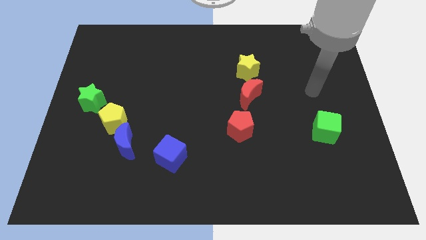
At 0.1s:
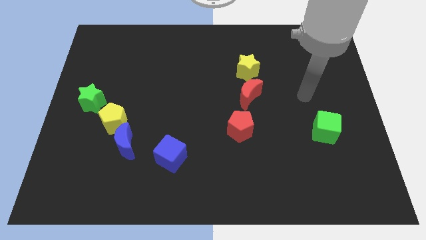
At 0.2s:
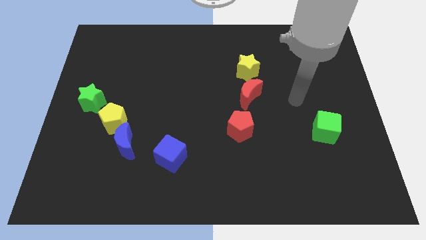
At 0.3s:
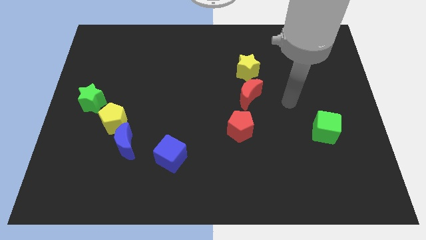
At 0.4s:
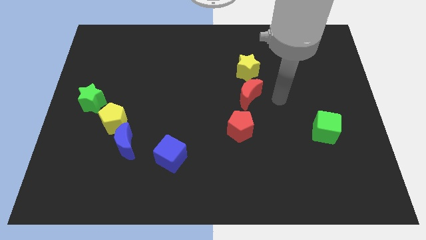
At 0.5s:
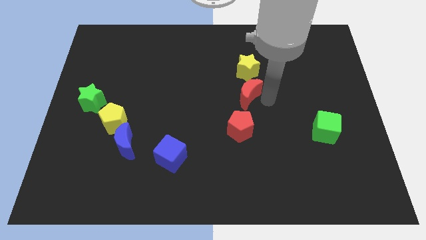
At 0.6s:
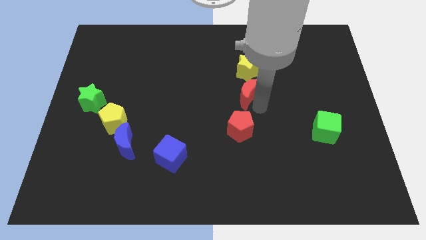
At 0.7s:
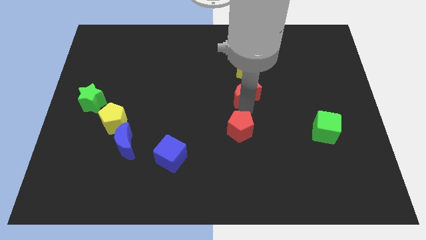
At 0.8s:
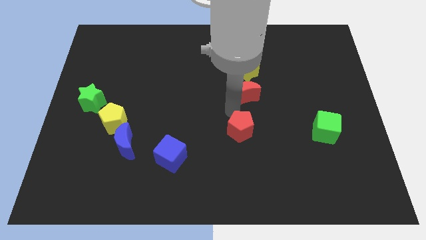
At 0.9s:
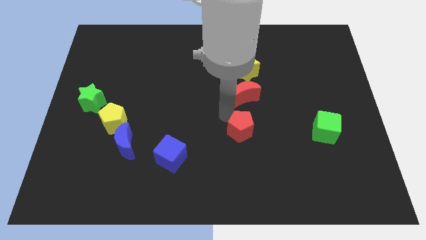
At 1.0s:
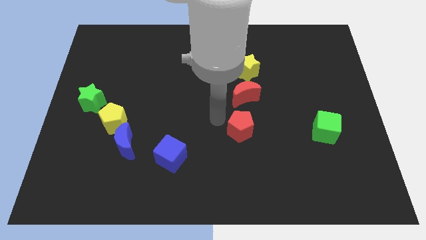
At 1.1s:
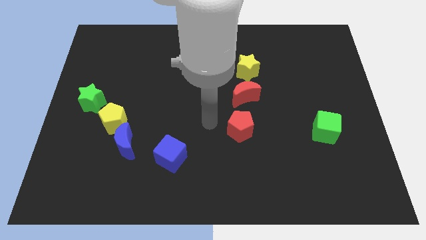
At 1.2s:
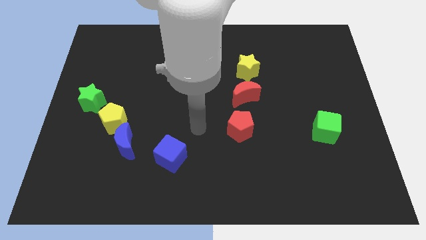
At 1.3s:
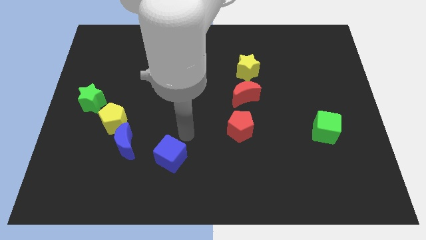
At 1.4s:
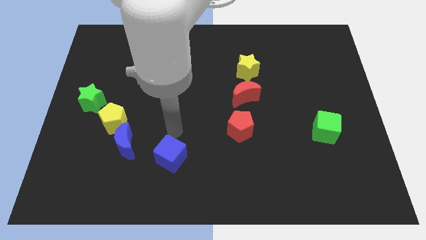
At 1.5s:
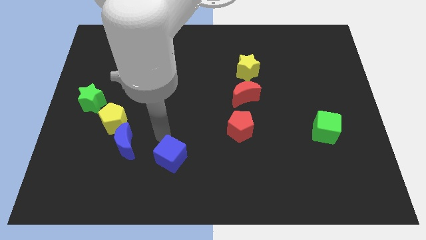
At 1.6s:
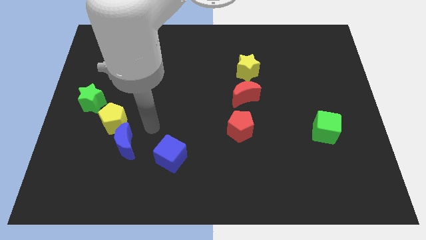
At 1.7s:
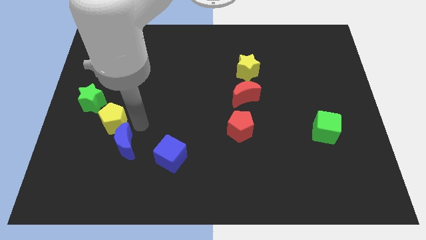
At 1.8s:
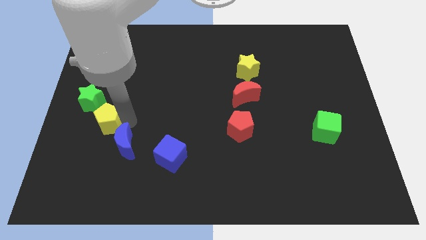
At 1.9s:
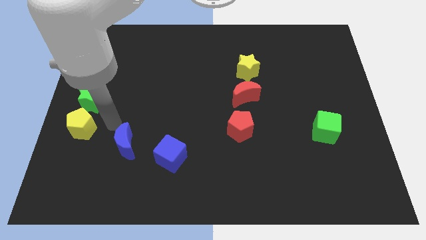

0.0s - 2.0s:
pull the blue moon apart from the yellow pentagon

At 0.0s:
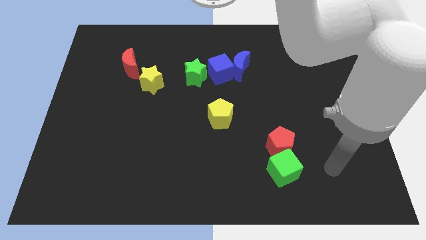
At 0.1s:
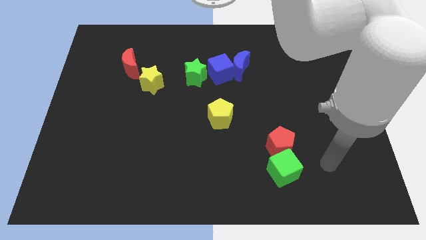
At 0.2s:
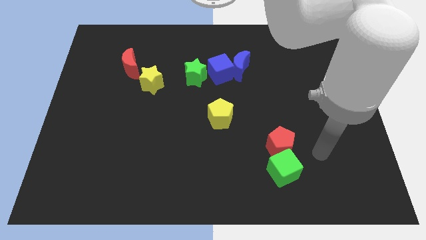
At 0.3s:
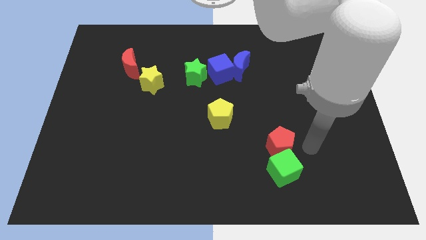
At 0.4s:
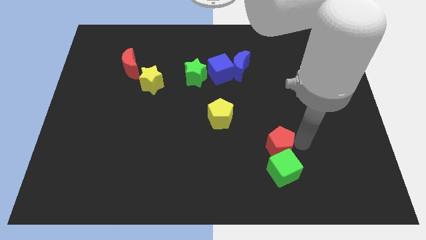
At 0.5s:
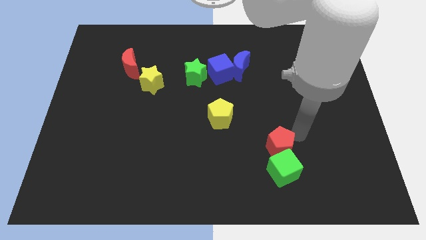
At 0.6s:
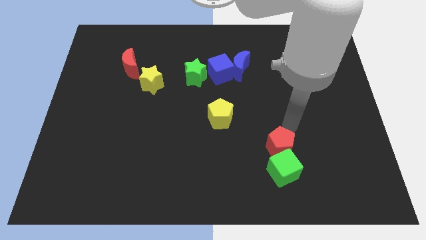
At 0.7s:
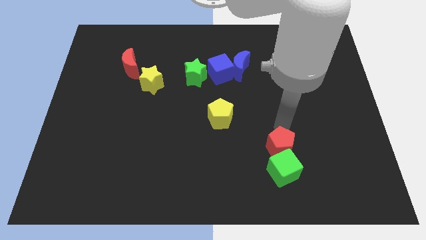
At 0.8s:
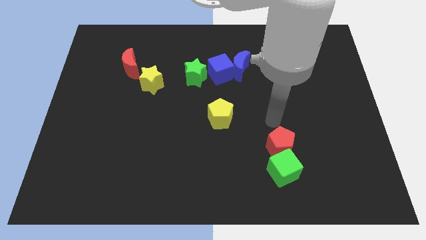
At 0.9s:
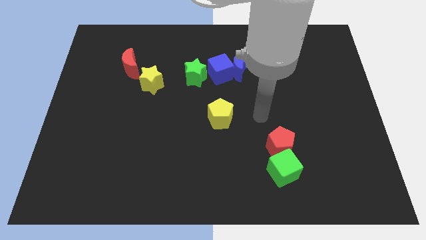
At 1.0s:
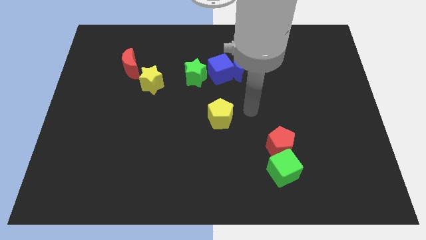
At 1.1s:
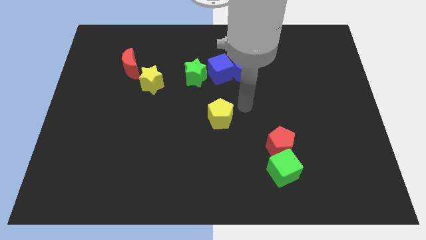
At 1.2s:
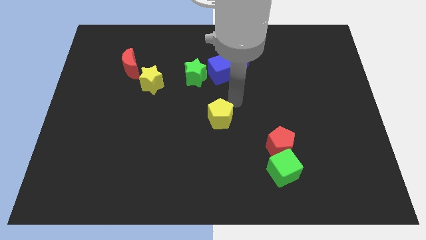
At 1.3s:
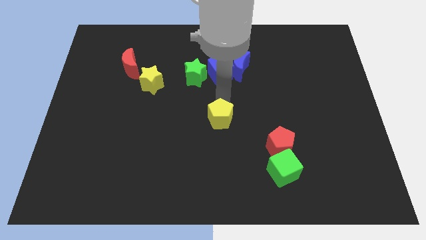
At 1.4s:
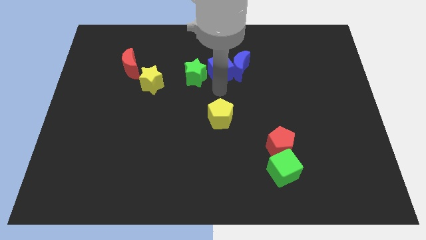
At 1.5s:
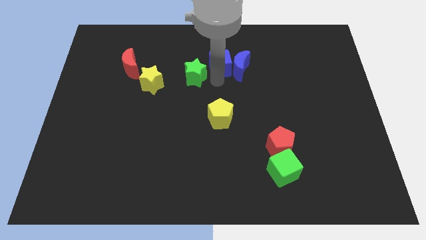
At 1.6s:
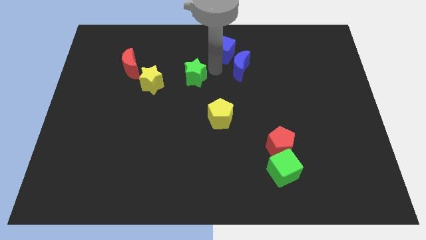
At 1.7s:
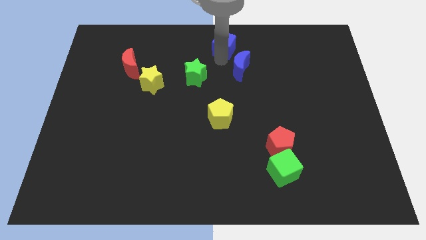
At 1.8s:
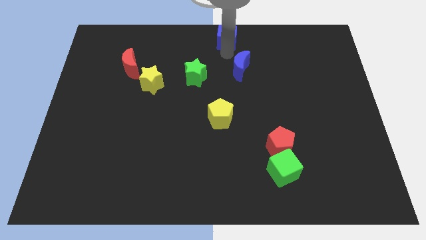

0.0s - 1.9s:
separate the blue moon from the blue cube

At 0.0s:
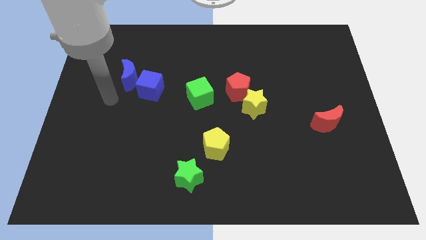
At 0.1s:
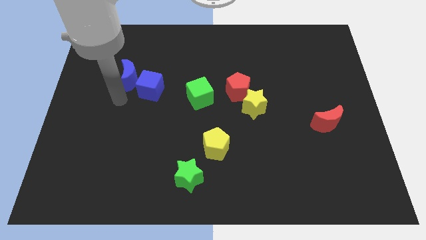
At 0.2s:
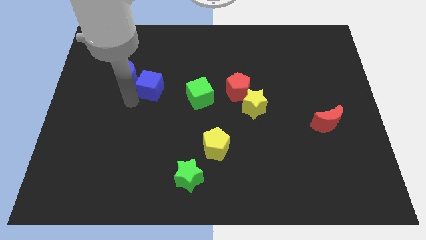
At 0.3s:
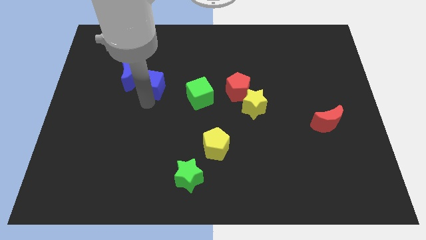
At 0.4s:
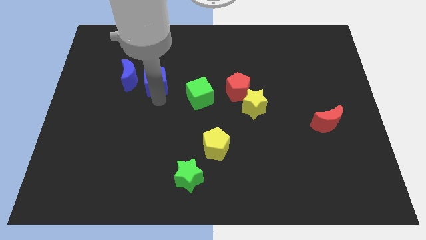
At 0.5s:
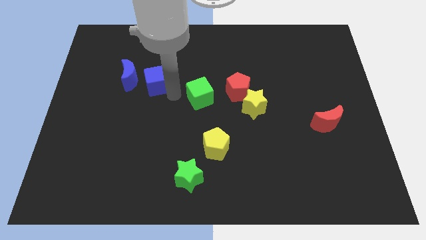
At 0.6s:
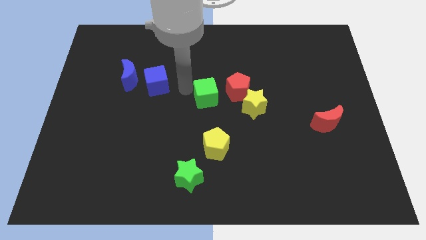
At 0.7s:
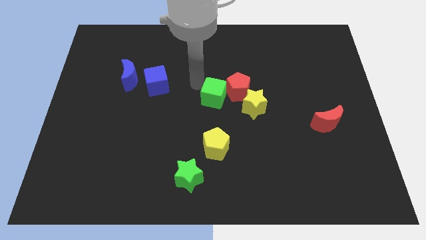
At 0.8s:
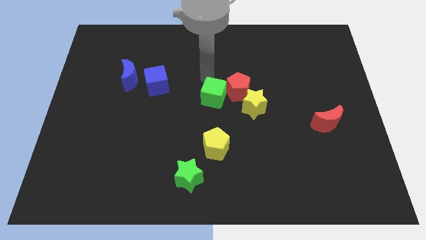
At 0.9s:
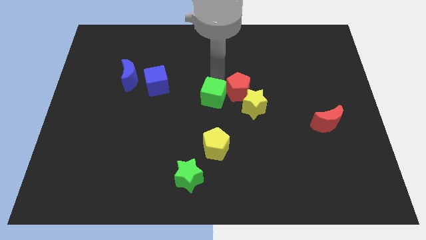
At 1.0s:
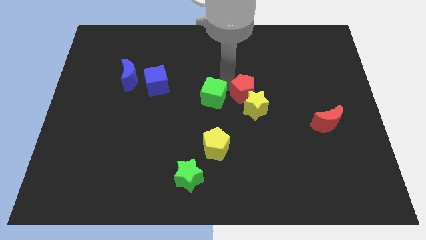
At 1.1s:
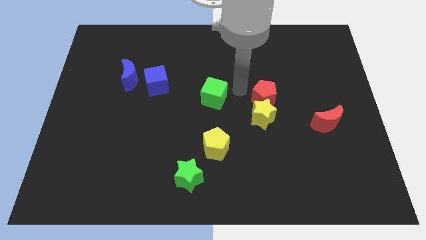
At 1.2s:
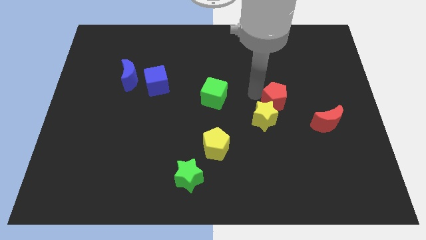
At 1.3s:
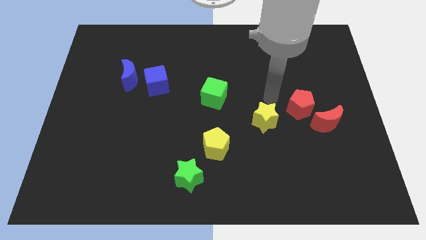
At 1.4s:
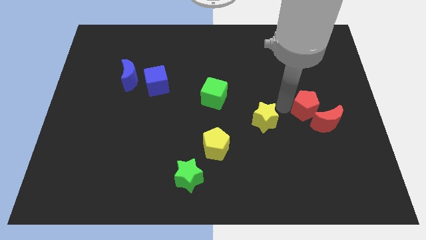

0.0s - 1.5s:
separate the yellow star from the red pentagon

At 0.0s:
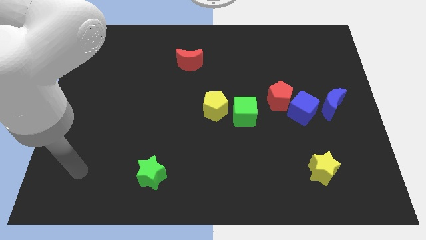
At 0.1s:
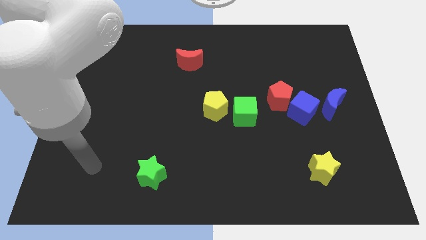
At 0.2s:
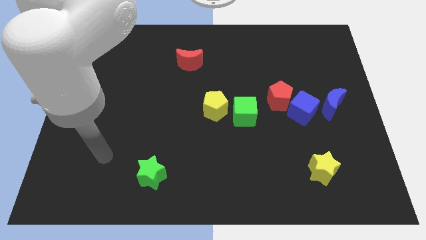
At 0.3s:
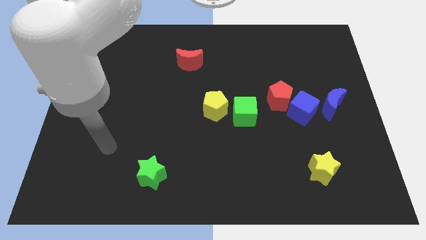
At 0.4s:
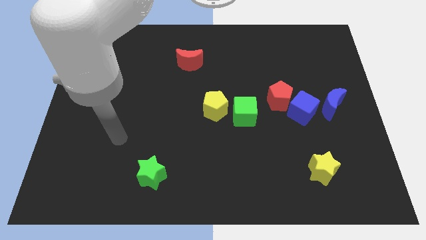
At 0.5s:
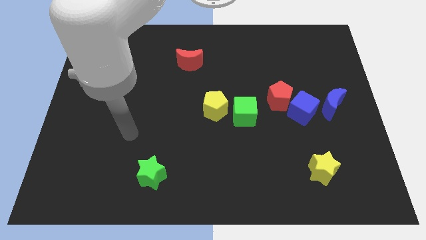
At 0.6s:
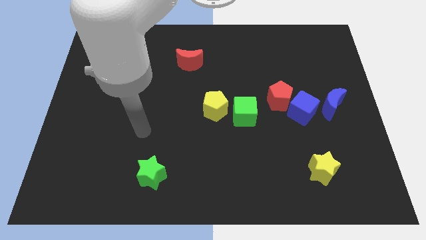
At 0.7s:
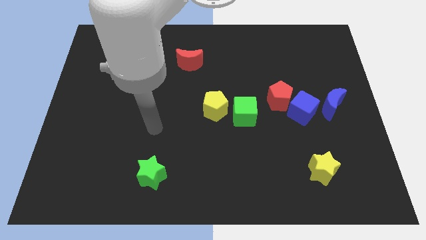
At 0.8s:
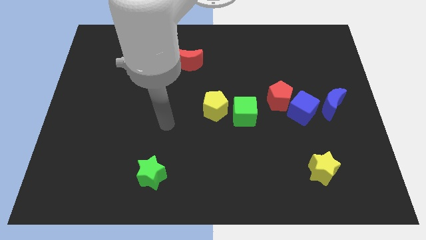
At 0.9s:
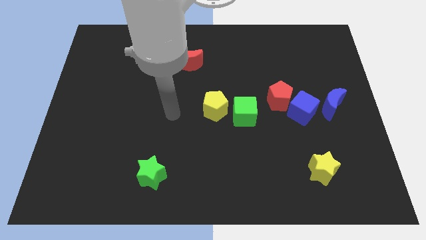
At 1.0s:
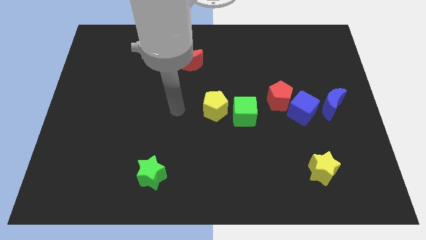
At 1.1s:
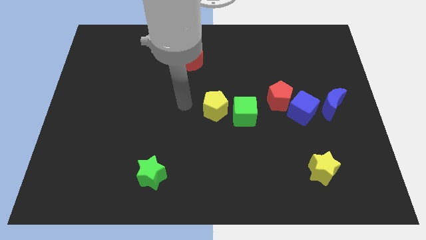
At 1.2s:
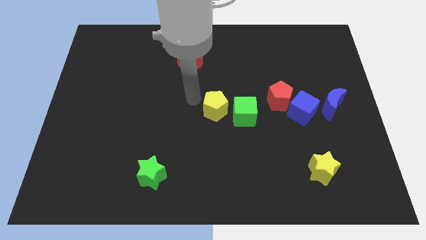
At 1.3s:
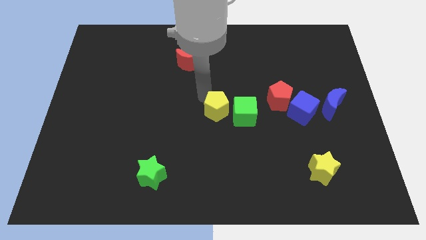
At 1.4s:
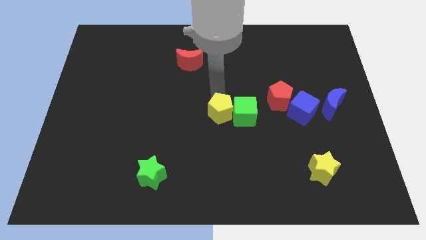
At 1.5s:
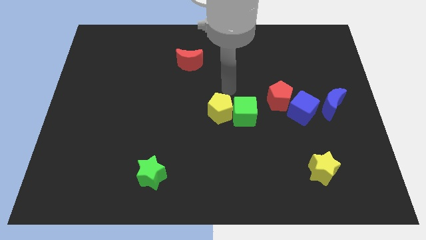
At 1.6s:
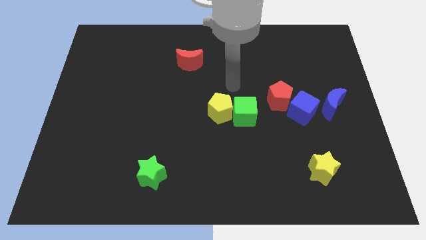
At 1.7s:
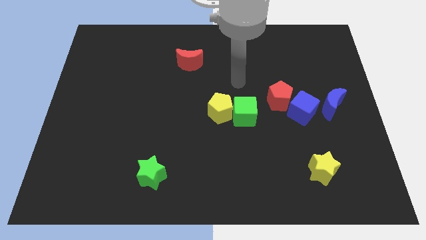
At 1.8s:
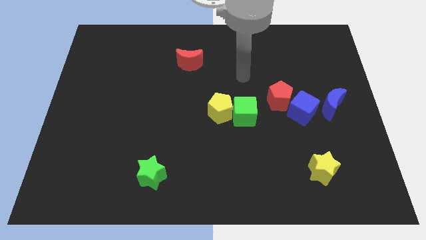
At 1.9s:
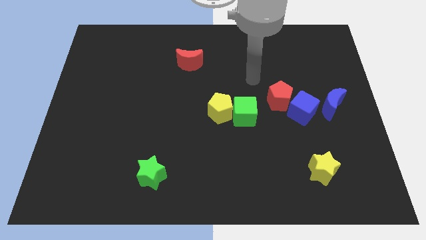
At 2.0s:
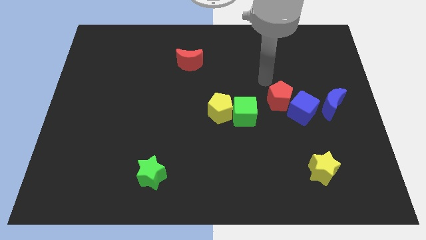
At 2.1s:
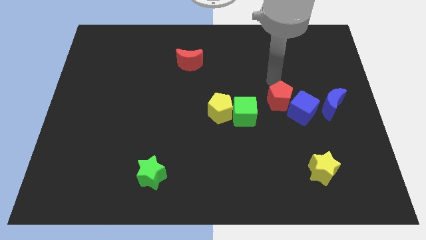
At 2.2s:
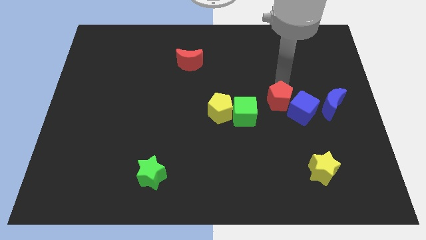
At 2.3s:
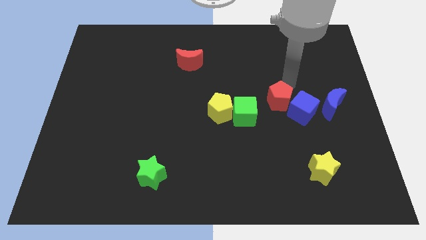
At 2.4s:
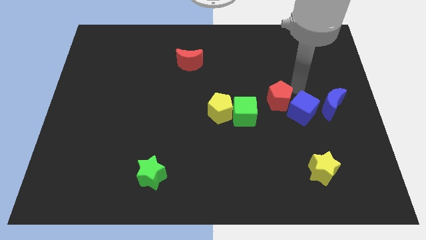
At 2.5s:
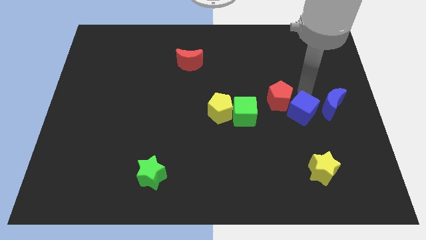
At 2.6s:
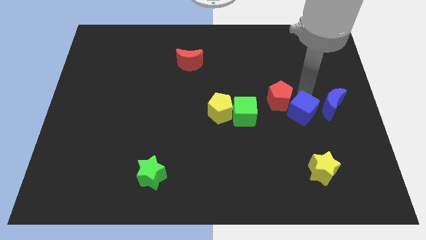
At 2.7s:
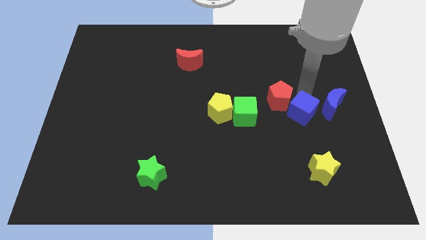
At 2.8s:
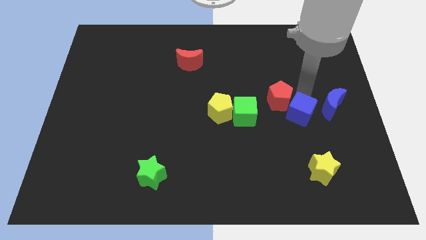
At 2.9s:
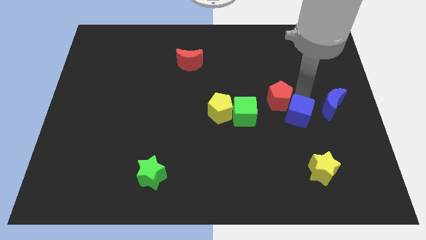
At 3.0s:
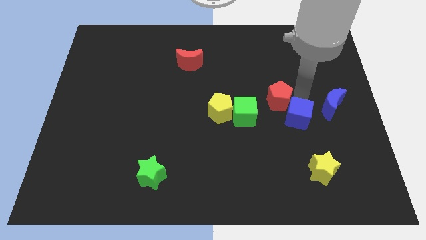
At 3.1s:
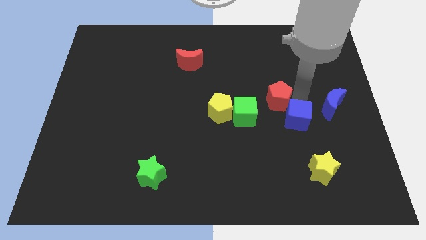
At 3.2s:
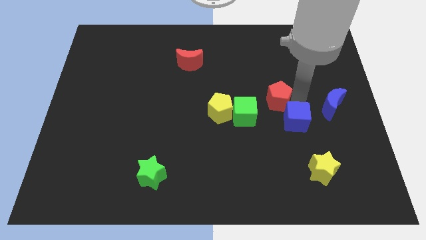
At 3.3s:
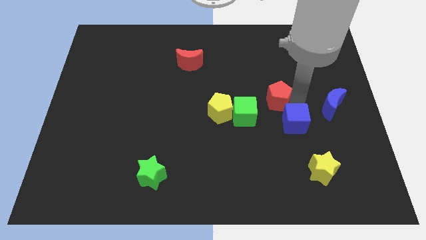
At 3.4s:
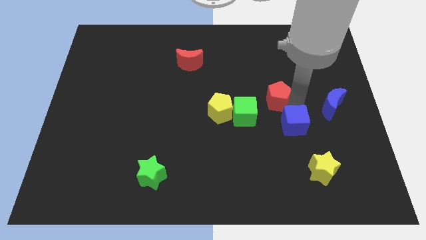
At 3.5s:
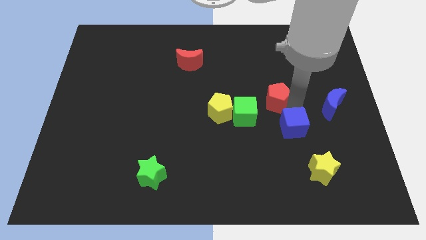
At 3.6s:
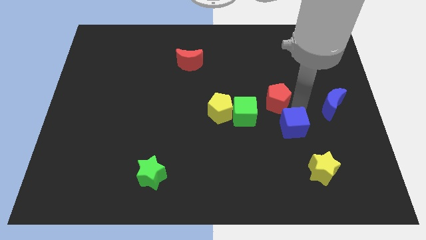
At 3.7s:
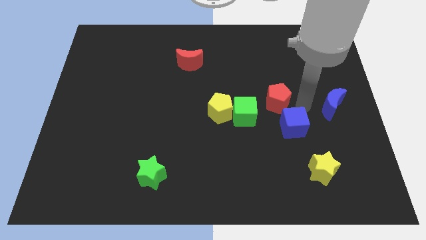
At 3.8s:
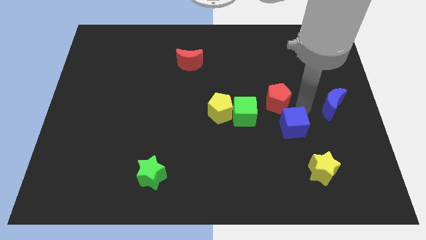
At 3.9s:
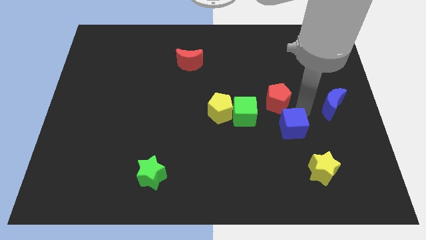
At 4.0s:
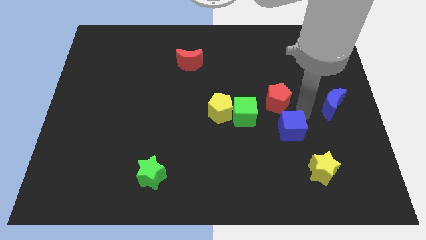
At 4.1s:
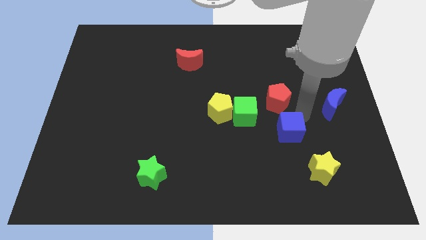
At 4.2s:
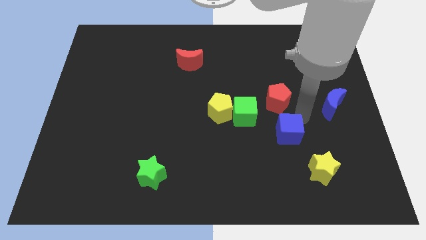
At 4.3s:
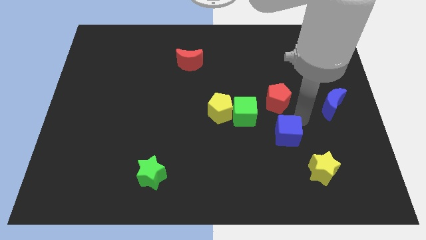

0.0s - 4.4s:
separate the blue cube from the red pentagon and blue moon
